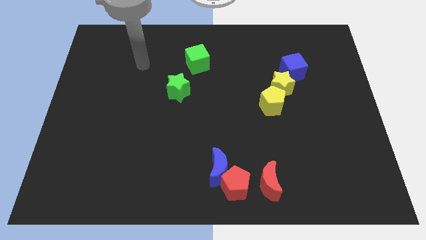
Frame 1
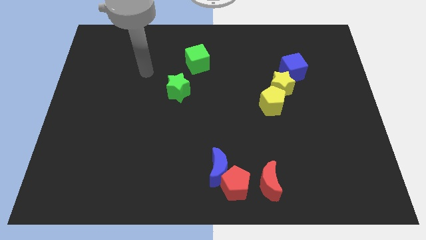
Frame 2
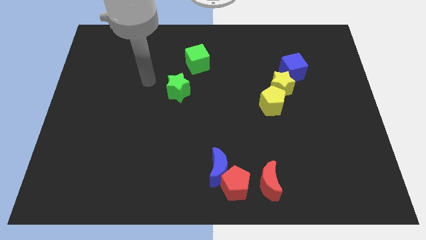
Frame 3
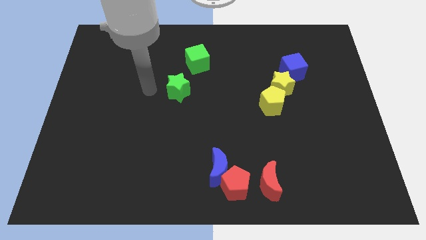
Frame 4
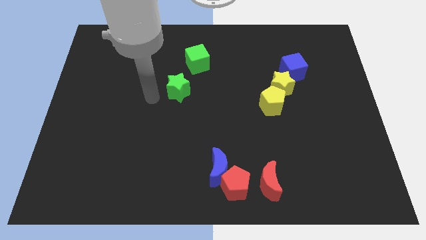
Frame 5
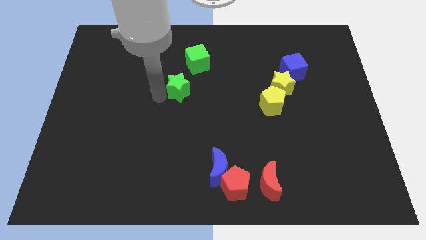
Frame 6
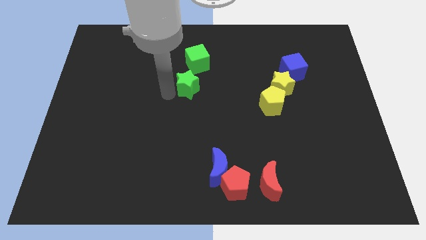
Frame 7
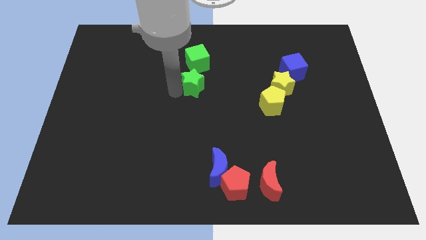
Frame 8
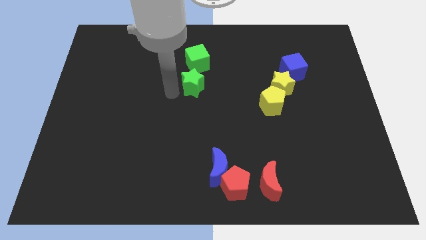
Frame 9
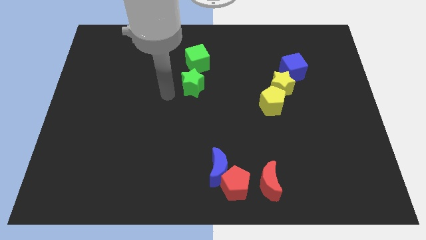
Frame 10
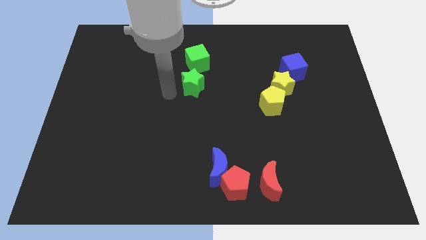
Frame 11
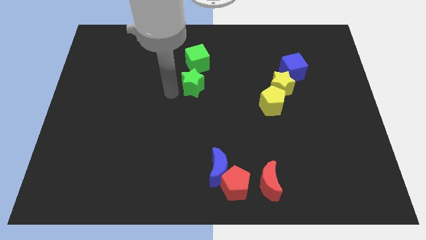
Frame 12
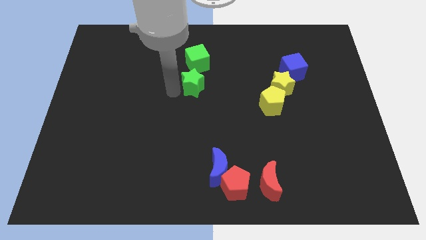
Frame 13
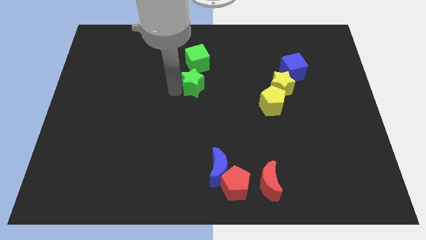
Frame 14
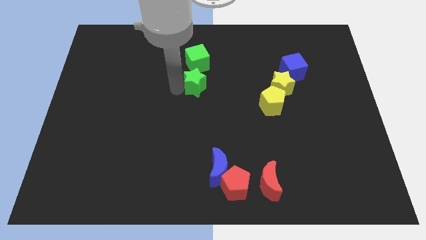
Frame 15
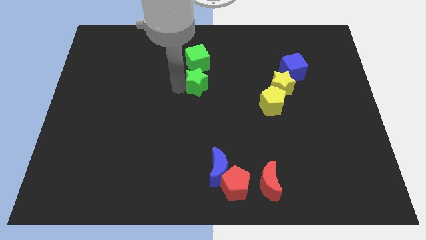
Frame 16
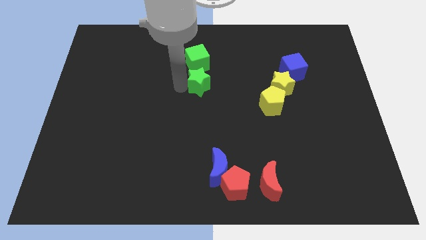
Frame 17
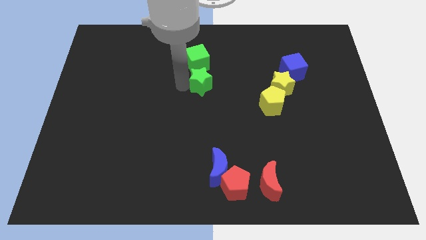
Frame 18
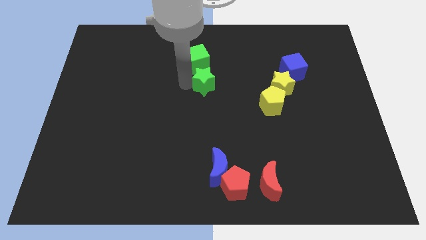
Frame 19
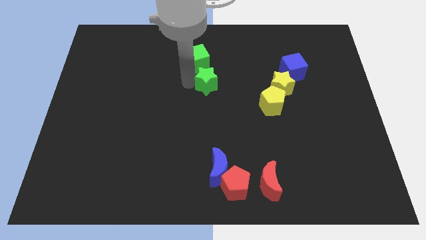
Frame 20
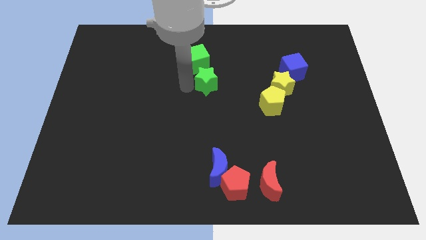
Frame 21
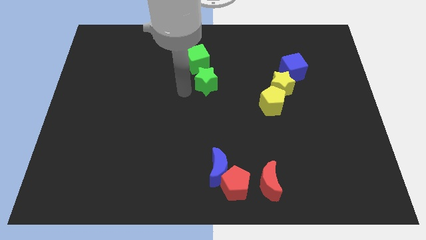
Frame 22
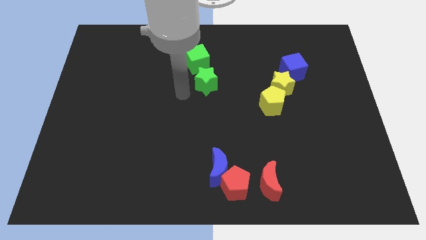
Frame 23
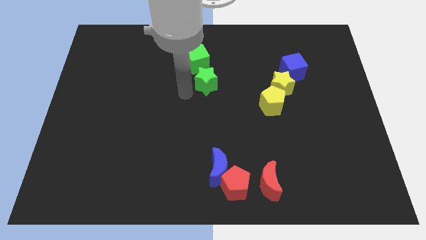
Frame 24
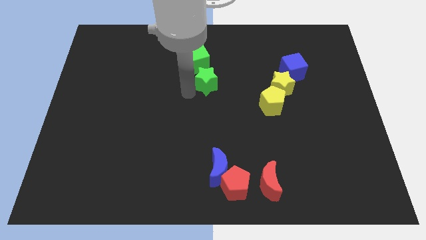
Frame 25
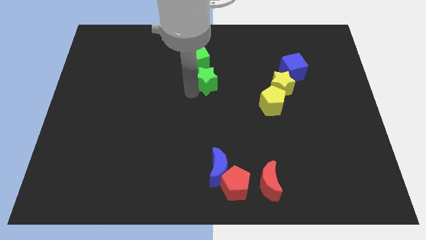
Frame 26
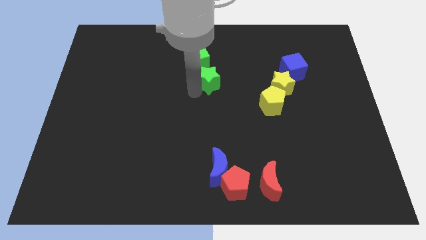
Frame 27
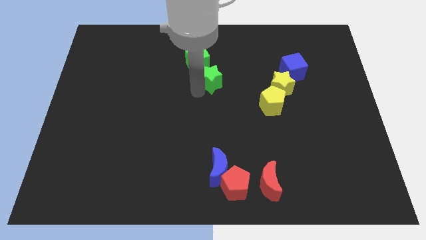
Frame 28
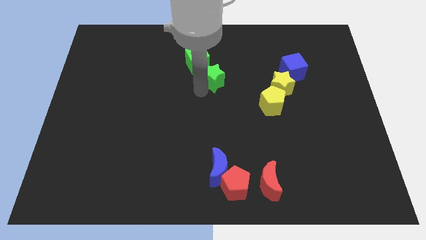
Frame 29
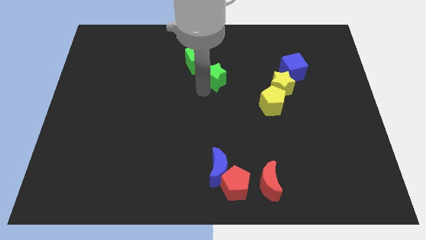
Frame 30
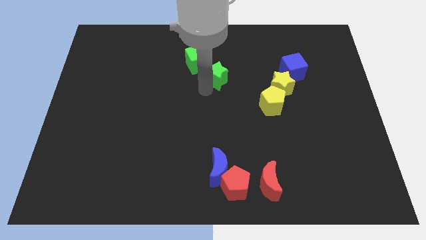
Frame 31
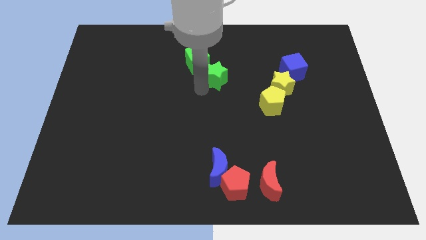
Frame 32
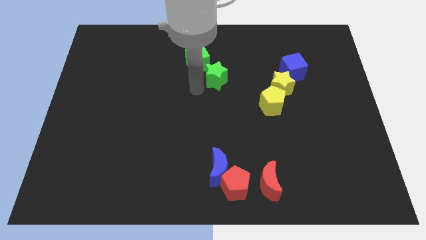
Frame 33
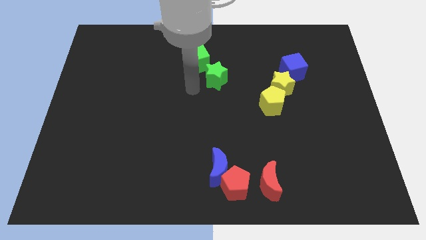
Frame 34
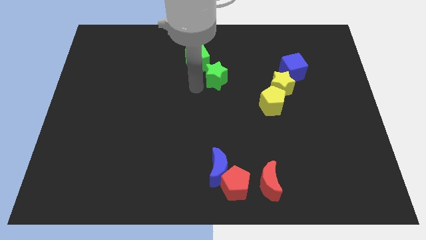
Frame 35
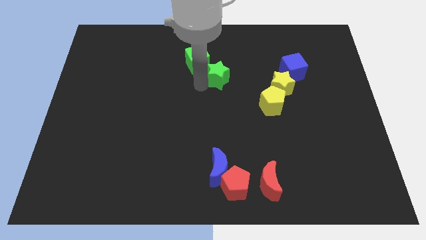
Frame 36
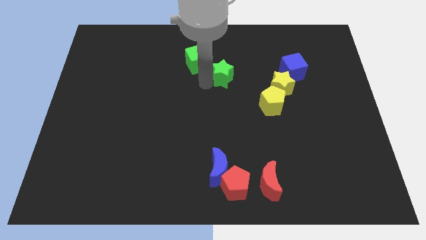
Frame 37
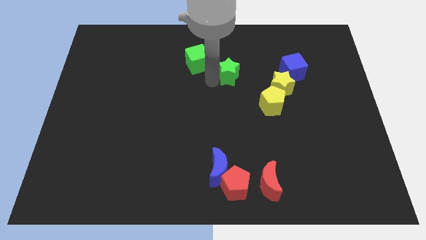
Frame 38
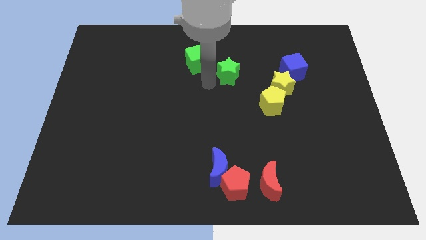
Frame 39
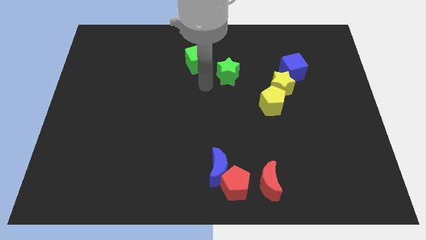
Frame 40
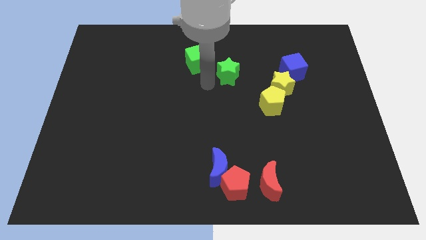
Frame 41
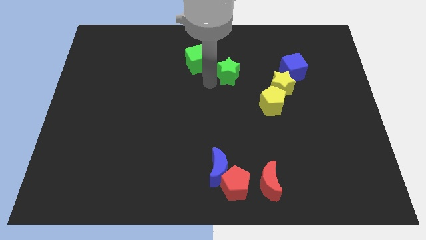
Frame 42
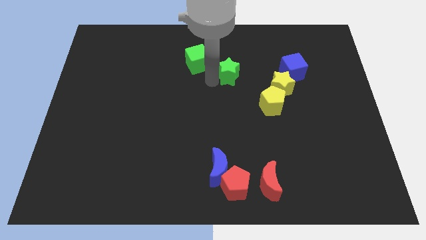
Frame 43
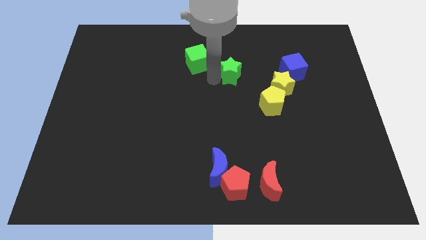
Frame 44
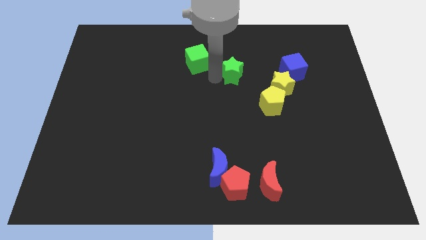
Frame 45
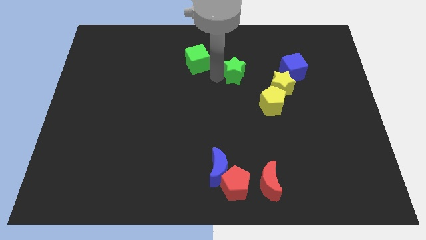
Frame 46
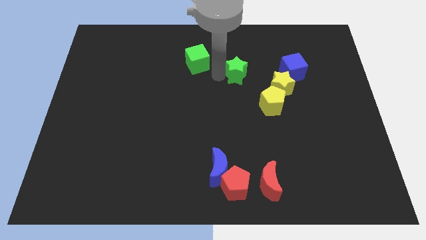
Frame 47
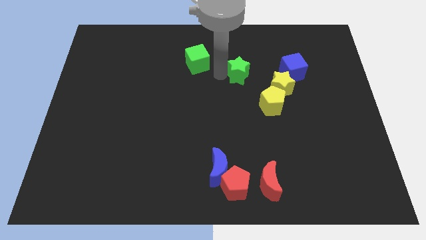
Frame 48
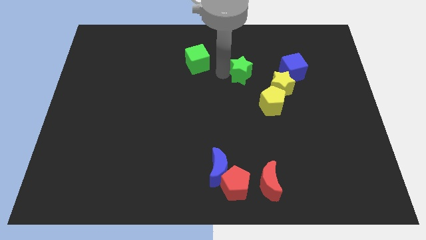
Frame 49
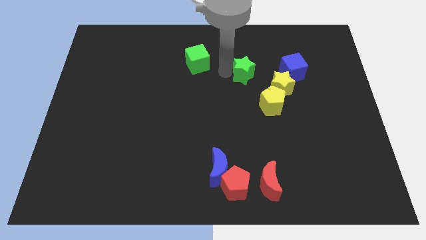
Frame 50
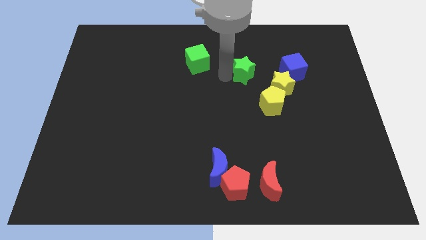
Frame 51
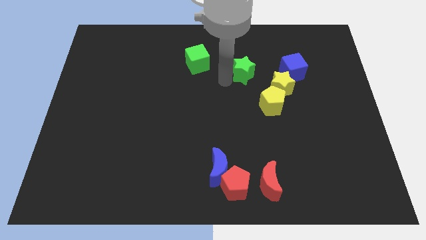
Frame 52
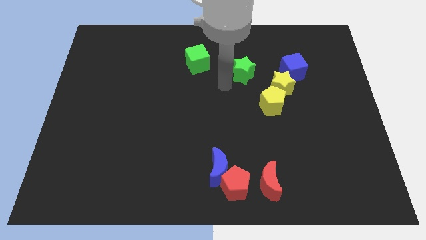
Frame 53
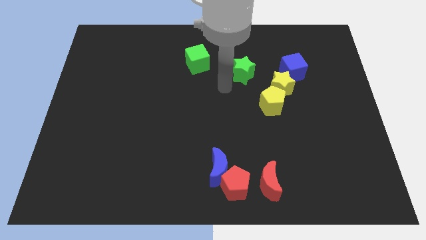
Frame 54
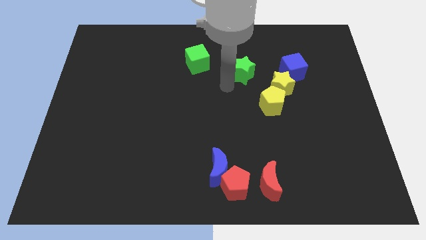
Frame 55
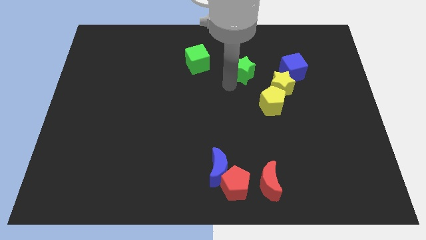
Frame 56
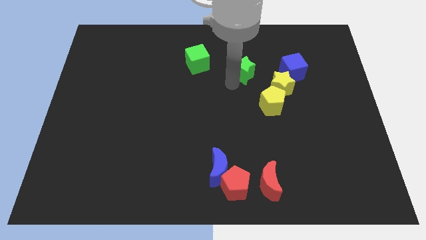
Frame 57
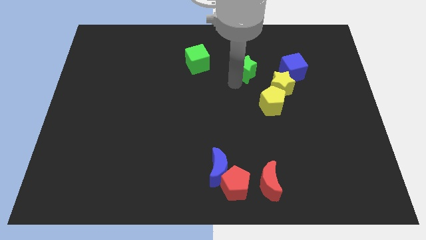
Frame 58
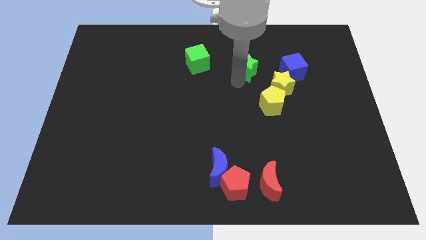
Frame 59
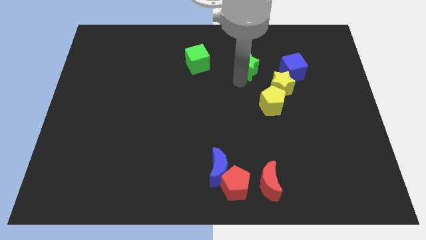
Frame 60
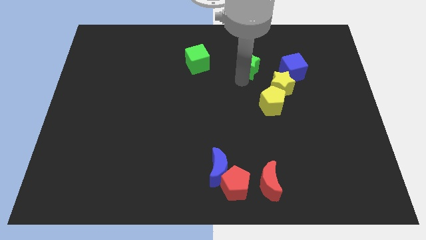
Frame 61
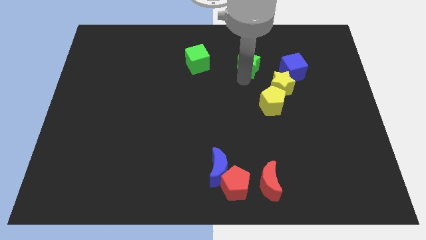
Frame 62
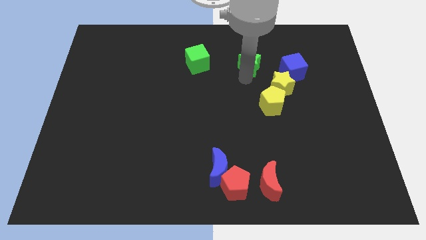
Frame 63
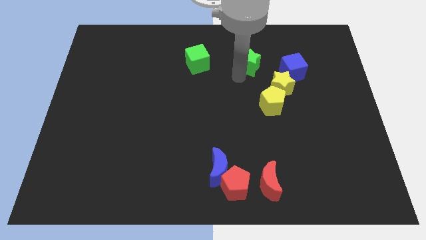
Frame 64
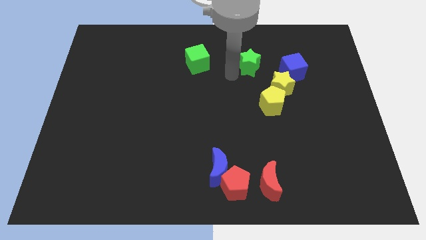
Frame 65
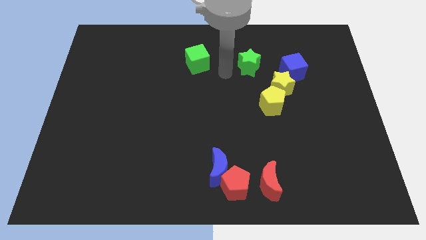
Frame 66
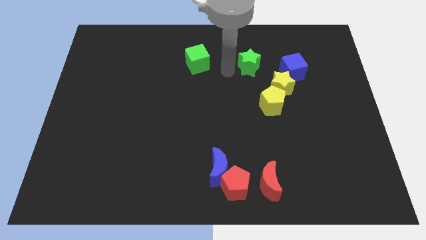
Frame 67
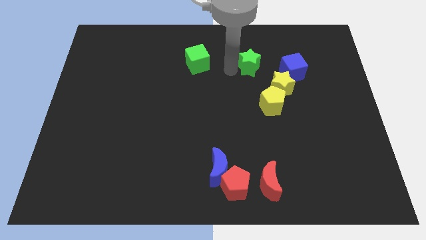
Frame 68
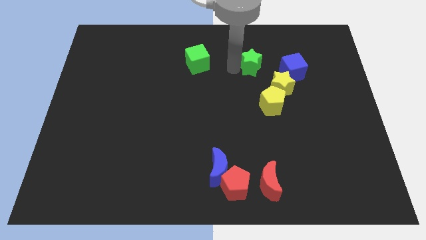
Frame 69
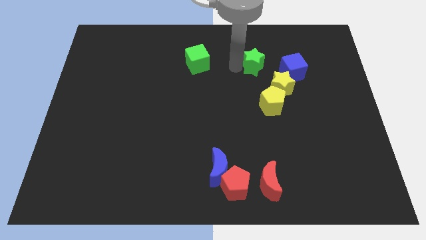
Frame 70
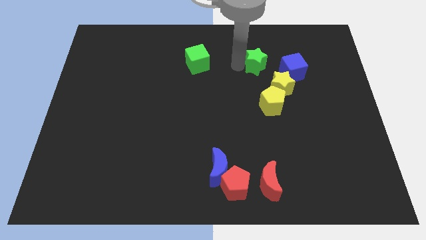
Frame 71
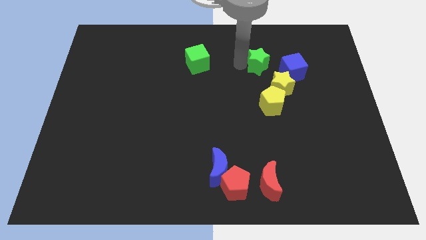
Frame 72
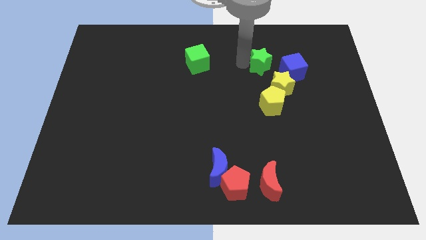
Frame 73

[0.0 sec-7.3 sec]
put the green star to the top of the yellow star
